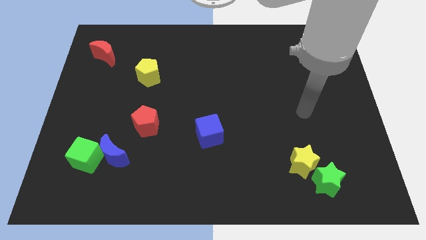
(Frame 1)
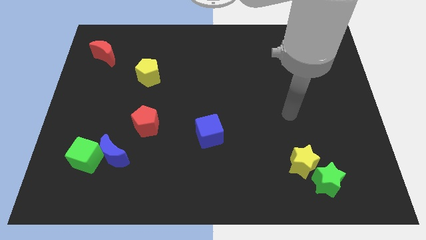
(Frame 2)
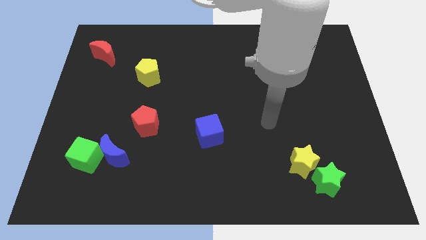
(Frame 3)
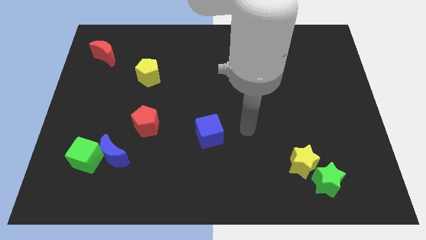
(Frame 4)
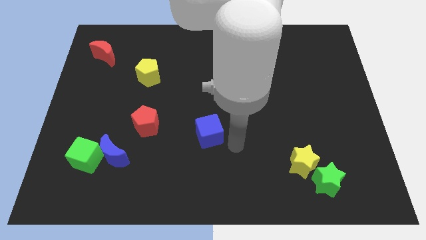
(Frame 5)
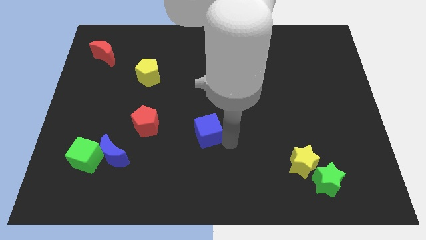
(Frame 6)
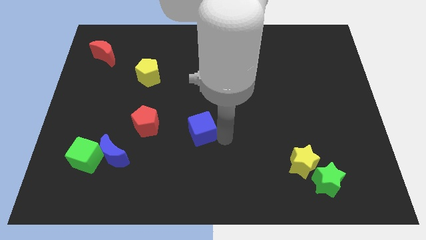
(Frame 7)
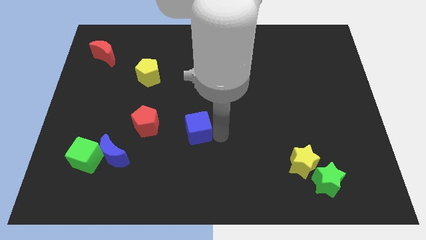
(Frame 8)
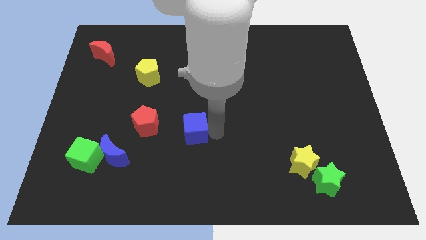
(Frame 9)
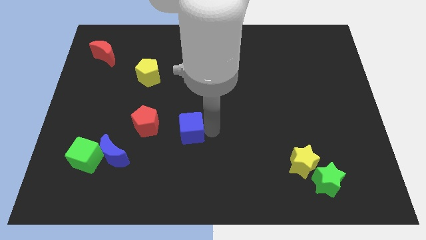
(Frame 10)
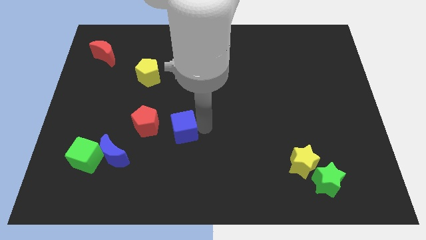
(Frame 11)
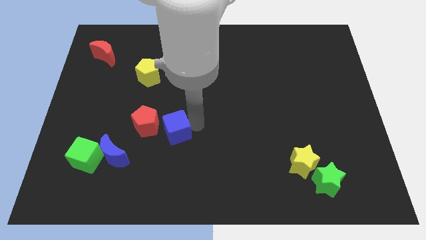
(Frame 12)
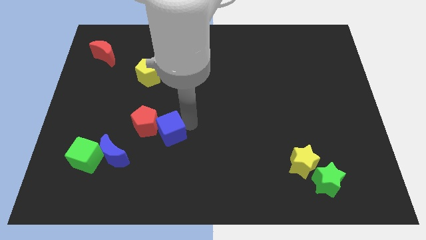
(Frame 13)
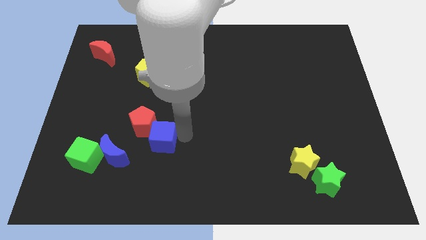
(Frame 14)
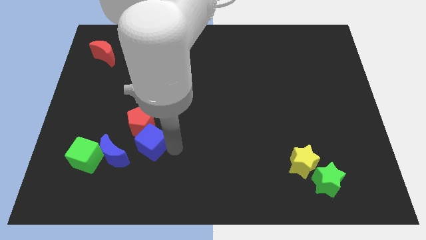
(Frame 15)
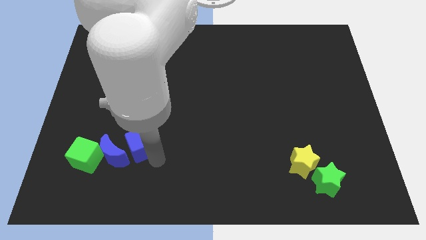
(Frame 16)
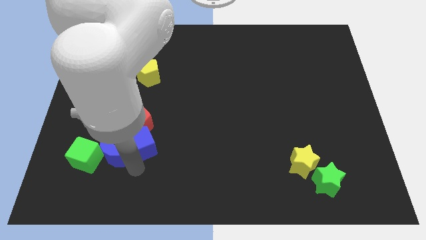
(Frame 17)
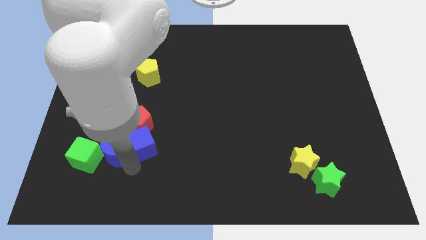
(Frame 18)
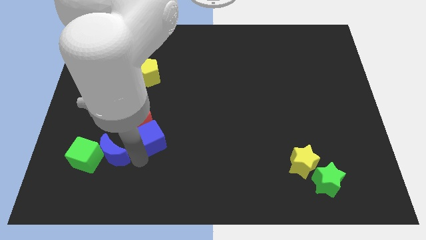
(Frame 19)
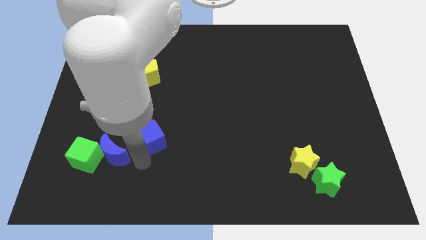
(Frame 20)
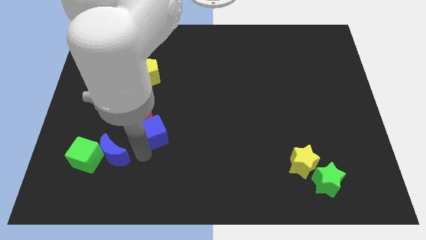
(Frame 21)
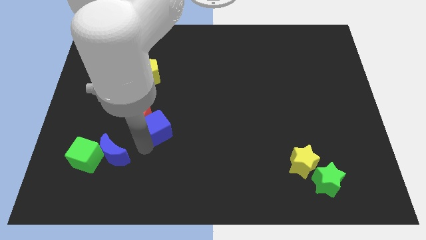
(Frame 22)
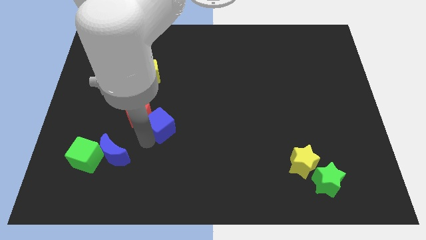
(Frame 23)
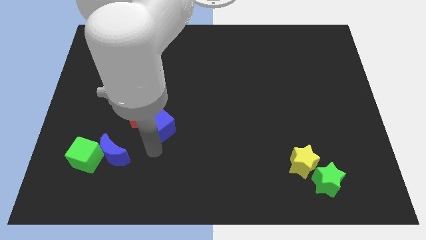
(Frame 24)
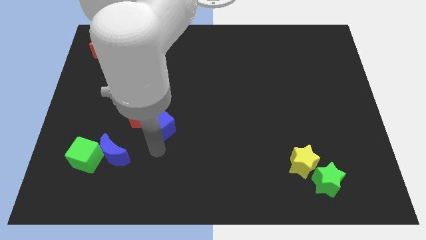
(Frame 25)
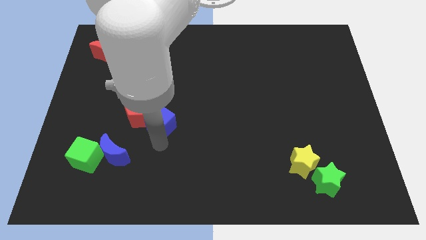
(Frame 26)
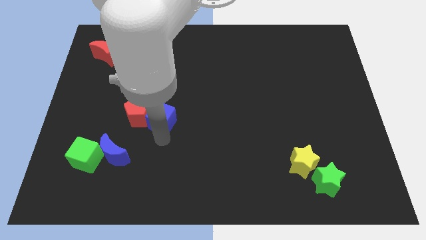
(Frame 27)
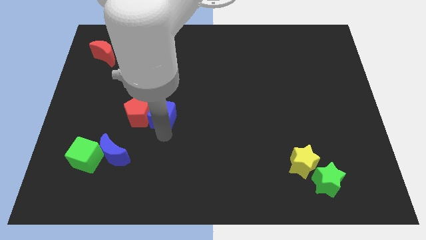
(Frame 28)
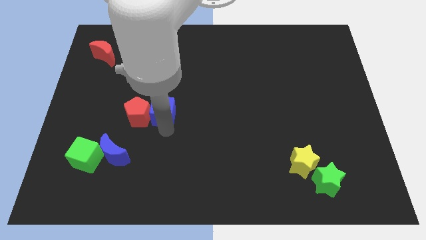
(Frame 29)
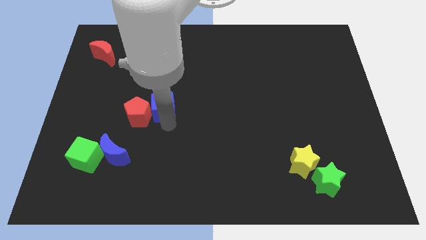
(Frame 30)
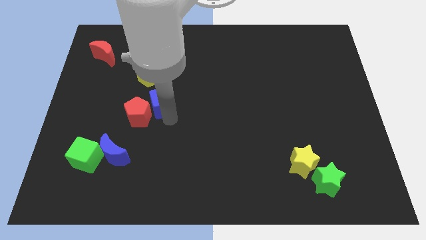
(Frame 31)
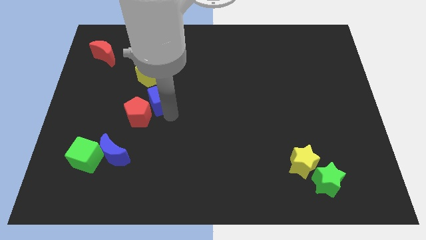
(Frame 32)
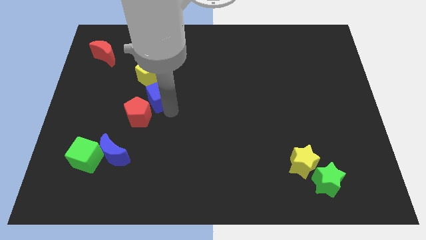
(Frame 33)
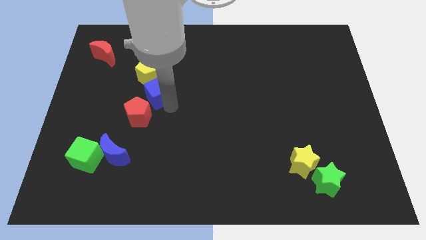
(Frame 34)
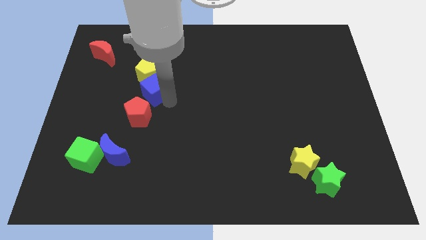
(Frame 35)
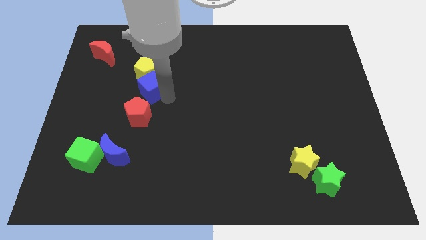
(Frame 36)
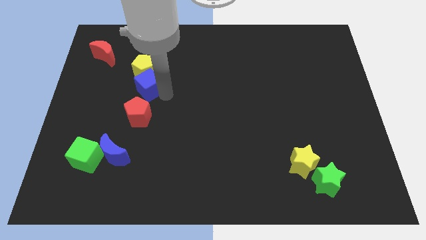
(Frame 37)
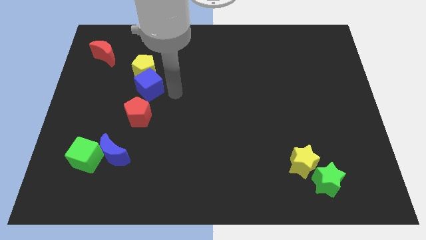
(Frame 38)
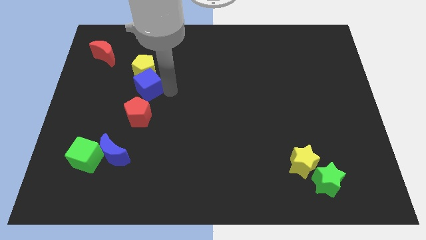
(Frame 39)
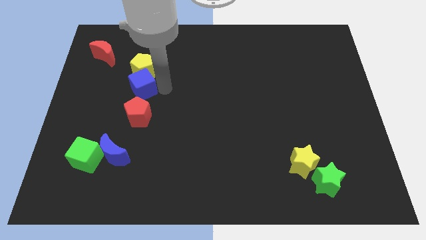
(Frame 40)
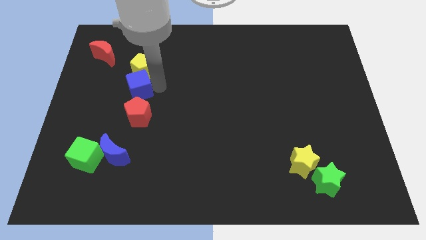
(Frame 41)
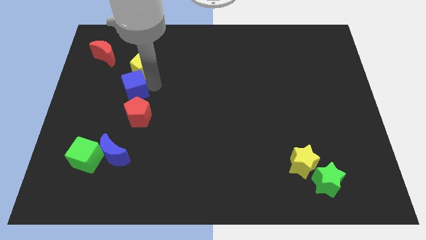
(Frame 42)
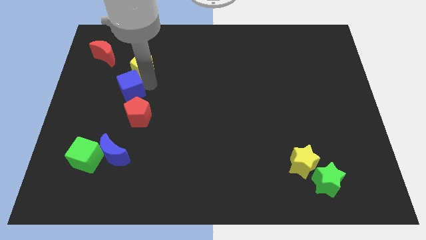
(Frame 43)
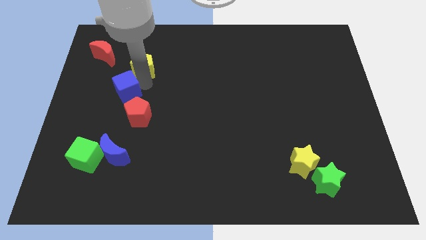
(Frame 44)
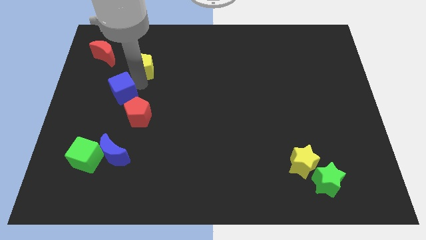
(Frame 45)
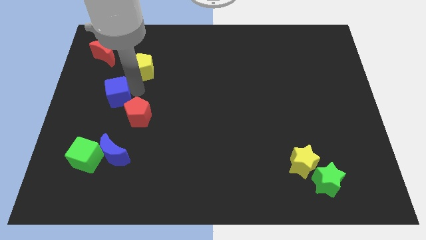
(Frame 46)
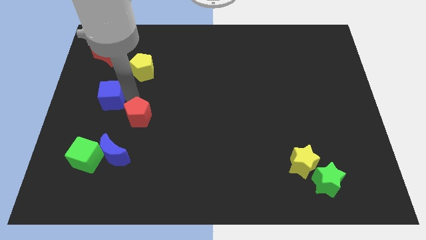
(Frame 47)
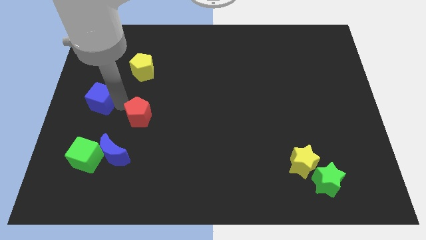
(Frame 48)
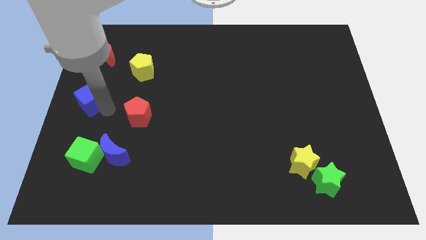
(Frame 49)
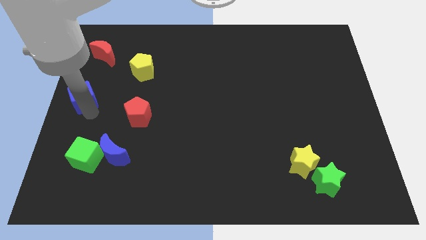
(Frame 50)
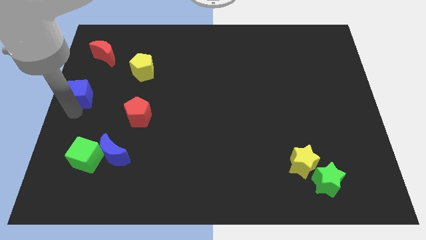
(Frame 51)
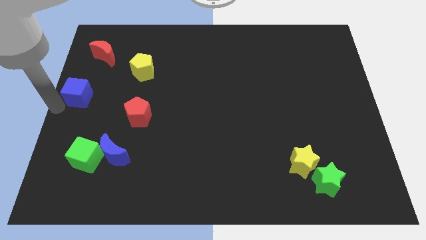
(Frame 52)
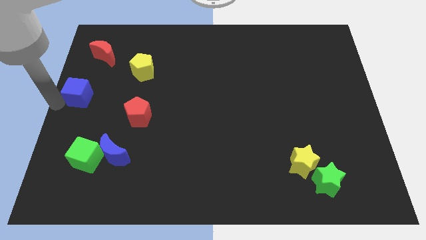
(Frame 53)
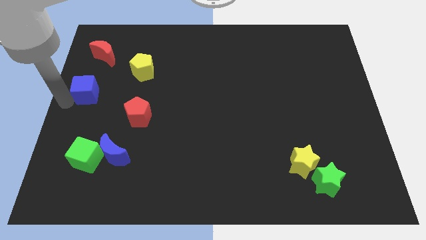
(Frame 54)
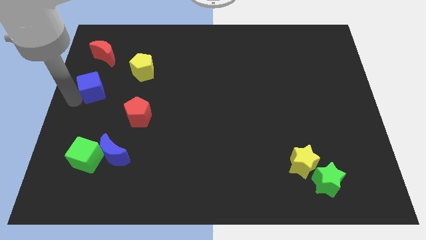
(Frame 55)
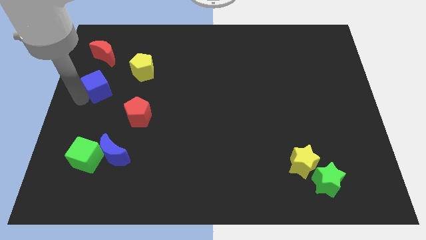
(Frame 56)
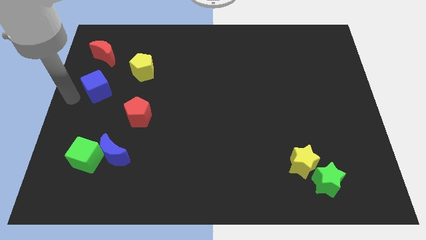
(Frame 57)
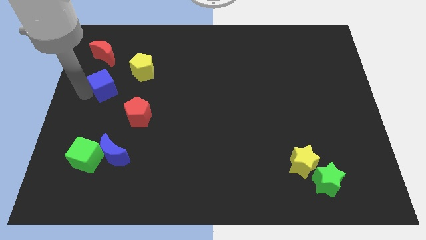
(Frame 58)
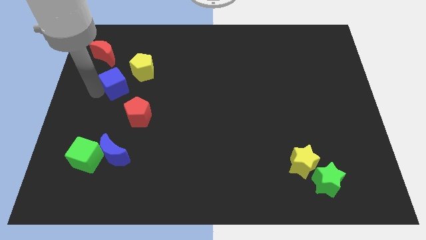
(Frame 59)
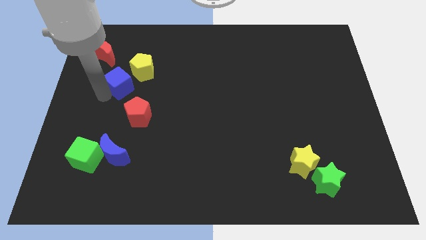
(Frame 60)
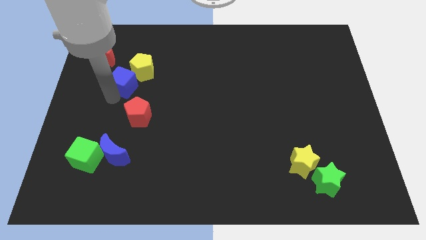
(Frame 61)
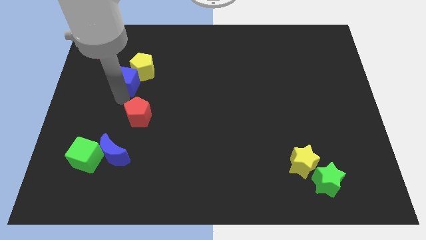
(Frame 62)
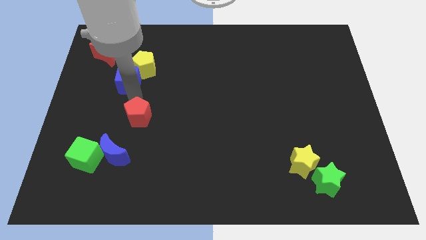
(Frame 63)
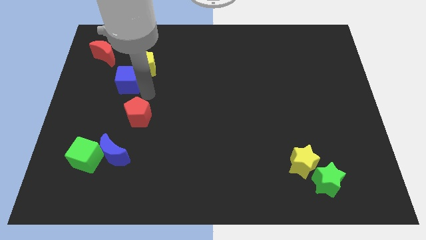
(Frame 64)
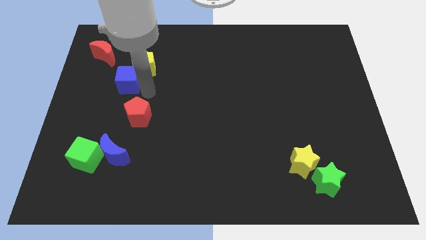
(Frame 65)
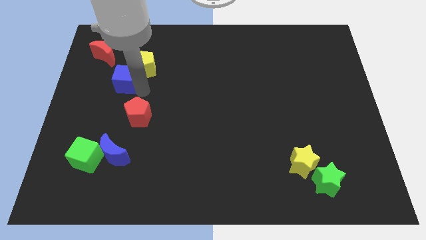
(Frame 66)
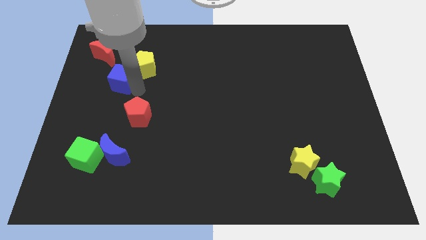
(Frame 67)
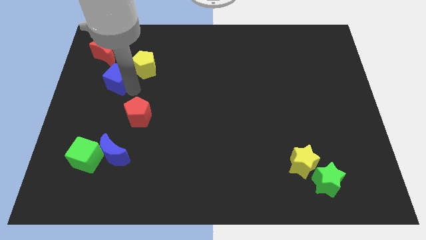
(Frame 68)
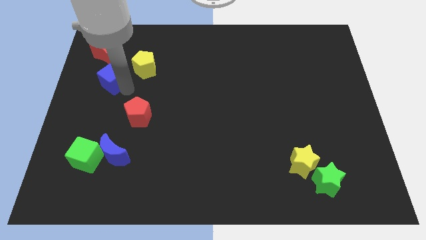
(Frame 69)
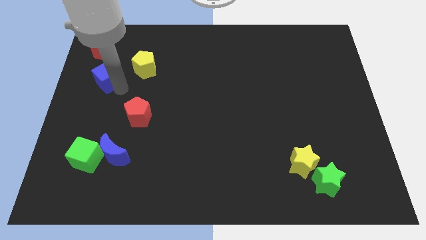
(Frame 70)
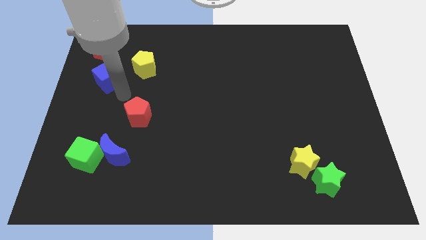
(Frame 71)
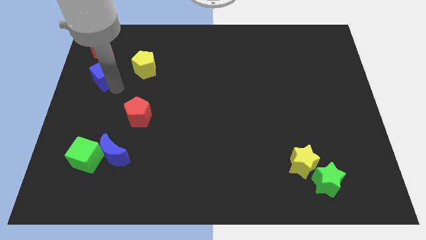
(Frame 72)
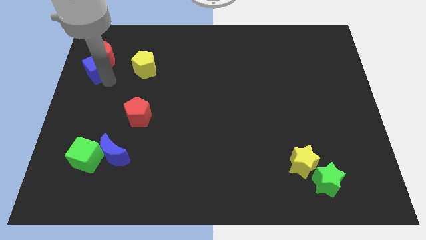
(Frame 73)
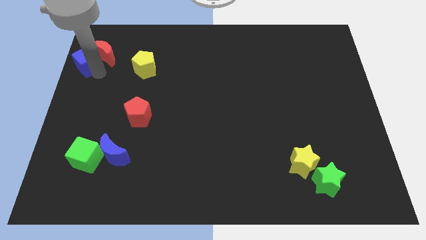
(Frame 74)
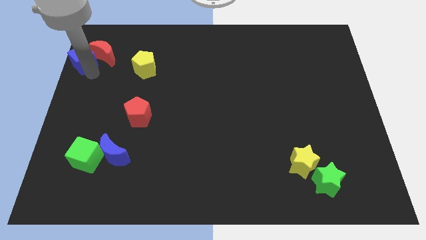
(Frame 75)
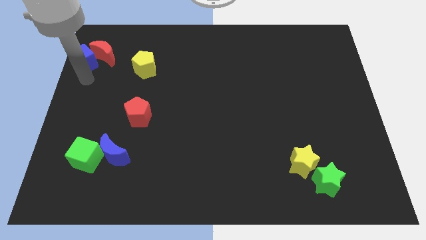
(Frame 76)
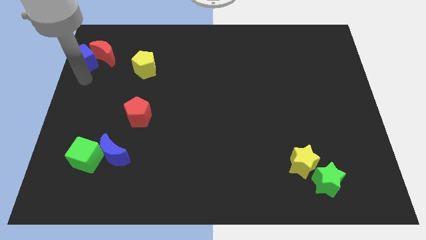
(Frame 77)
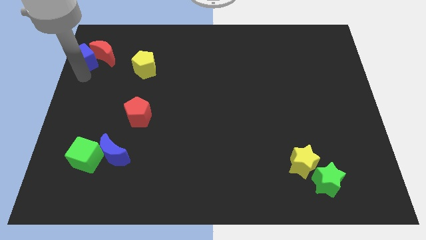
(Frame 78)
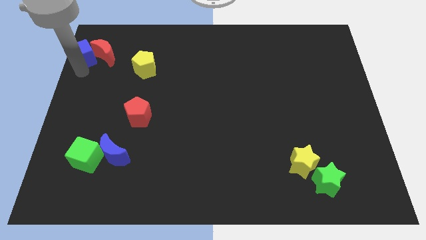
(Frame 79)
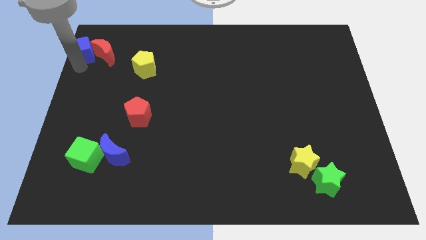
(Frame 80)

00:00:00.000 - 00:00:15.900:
slide the blue cube to the top left corner
